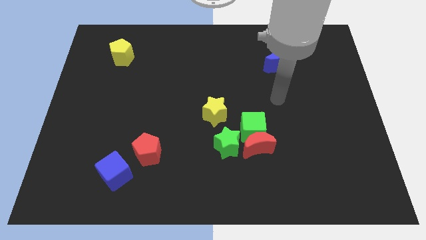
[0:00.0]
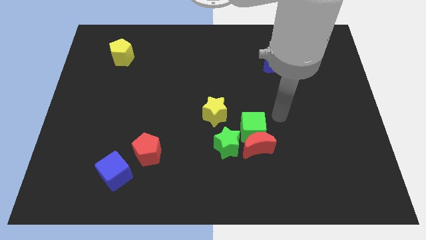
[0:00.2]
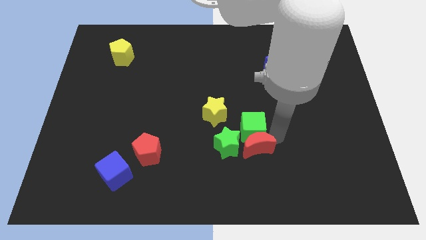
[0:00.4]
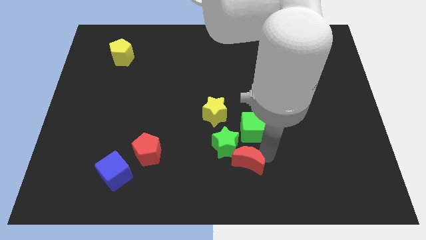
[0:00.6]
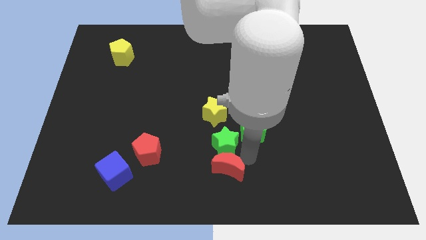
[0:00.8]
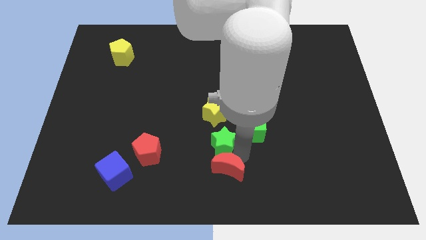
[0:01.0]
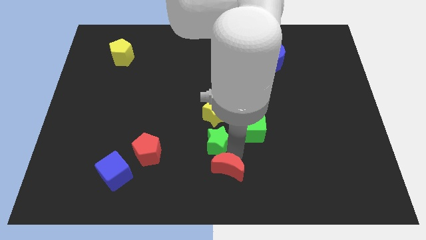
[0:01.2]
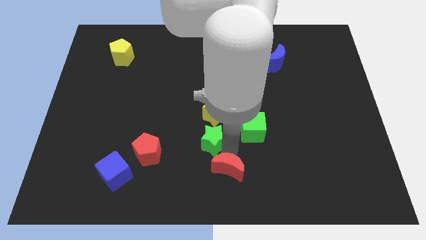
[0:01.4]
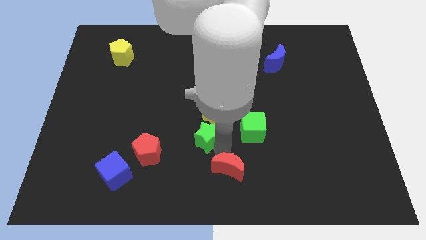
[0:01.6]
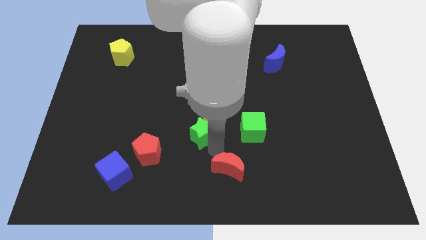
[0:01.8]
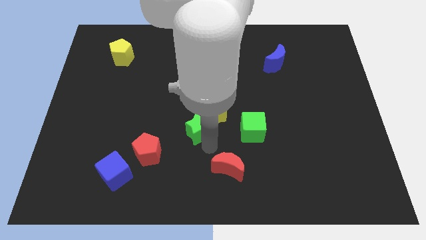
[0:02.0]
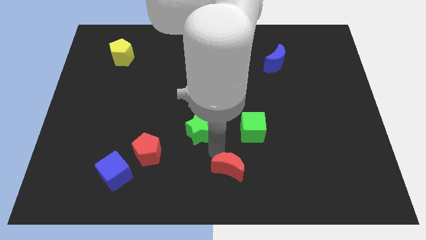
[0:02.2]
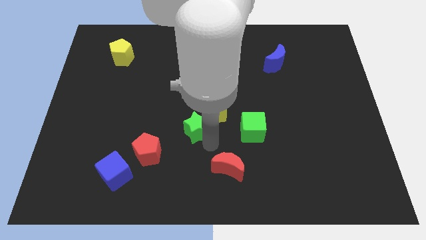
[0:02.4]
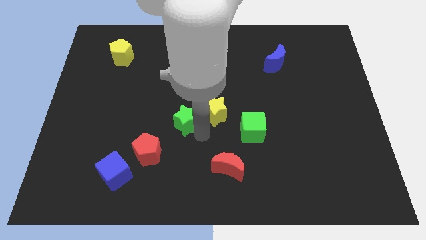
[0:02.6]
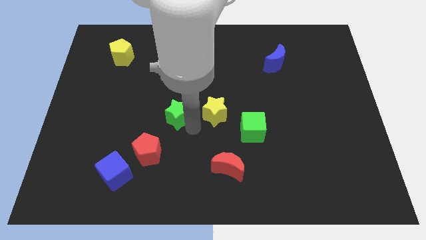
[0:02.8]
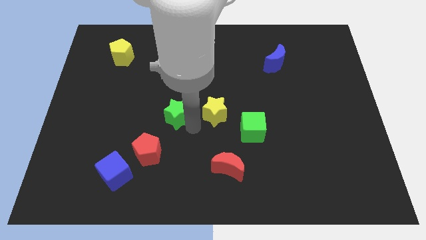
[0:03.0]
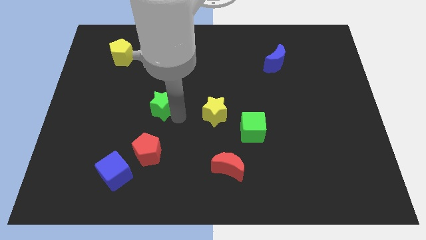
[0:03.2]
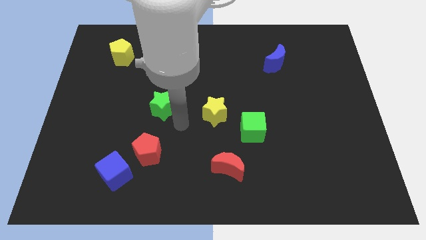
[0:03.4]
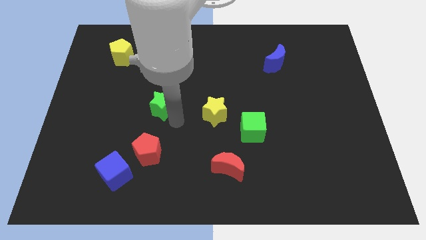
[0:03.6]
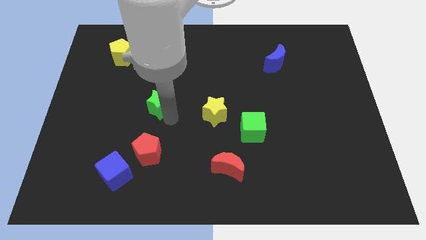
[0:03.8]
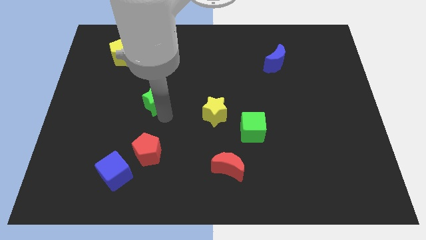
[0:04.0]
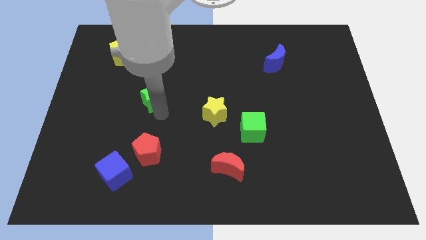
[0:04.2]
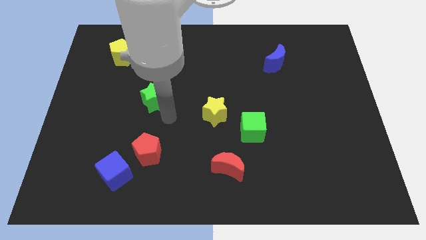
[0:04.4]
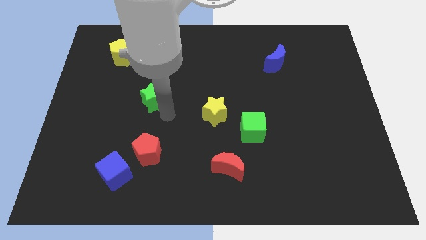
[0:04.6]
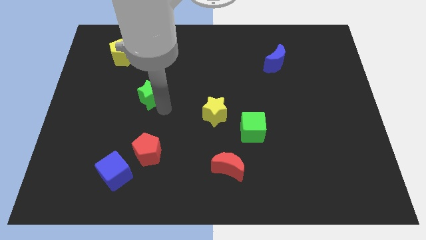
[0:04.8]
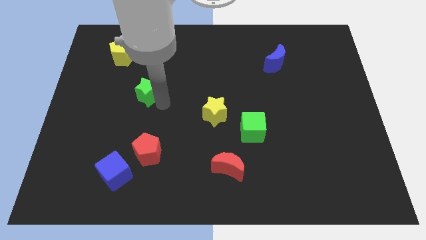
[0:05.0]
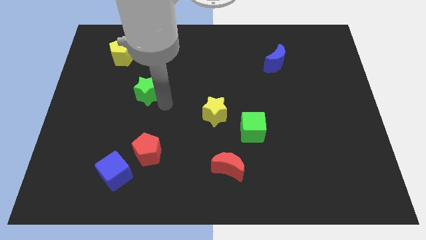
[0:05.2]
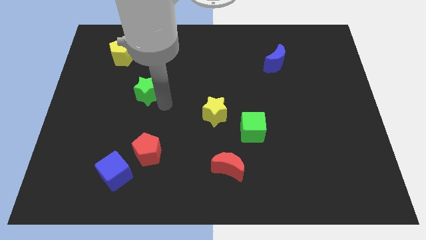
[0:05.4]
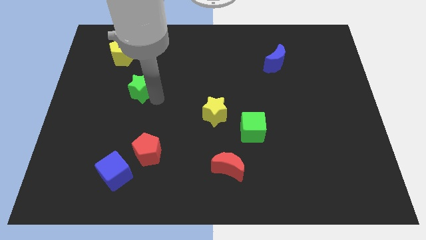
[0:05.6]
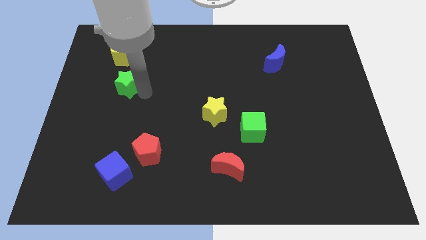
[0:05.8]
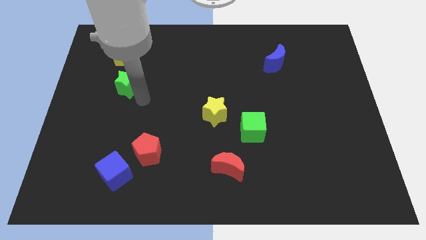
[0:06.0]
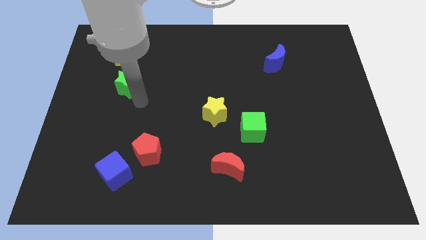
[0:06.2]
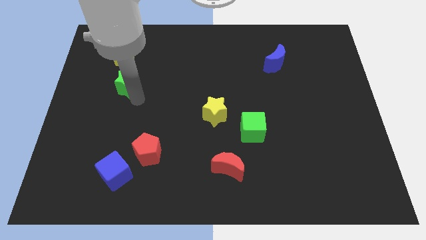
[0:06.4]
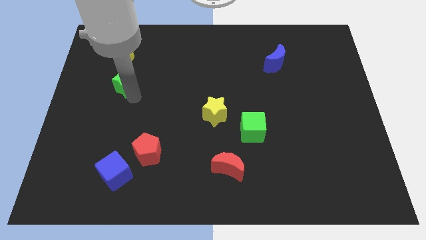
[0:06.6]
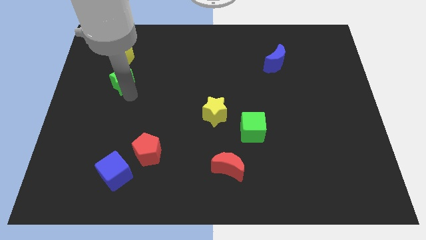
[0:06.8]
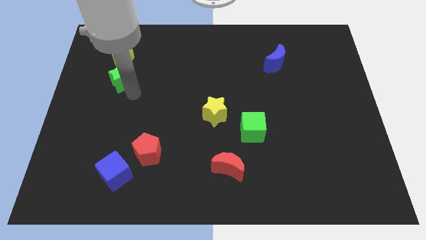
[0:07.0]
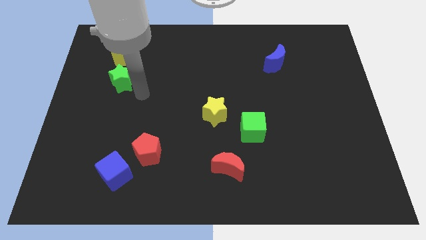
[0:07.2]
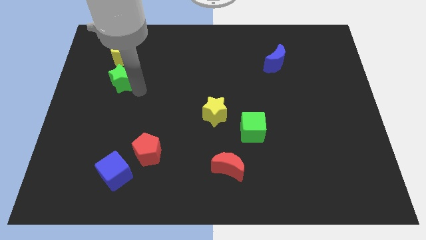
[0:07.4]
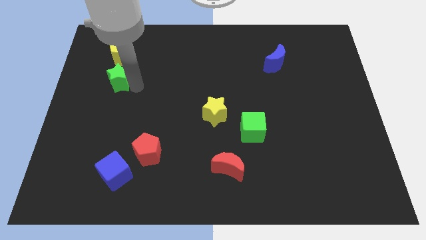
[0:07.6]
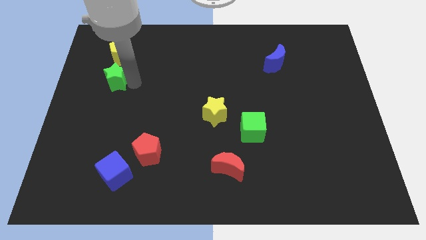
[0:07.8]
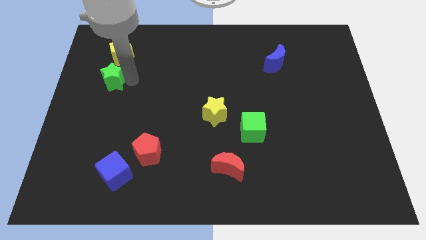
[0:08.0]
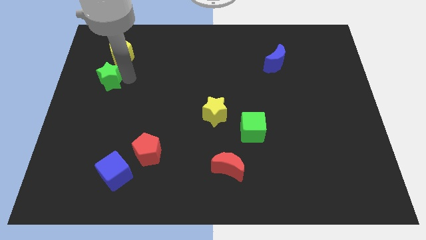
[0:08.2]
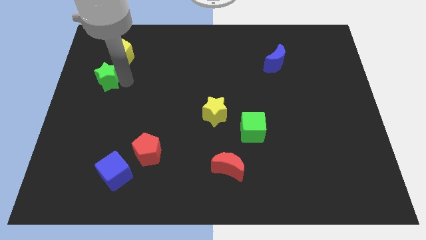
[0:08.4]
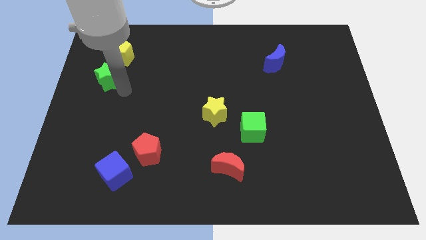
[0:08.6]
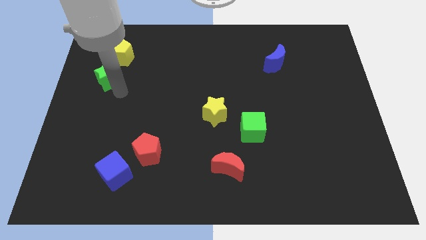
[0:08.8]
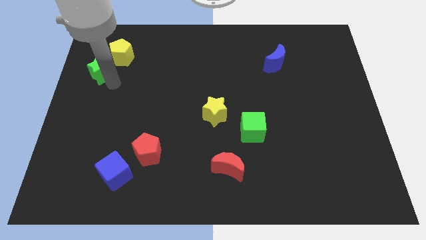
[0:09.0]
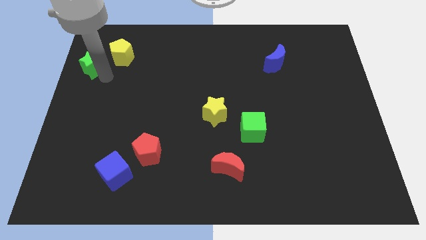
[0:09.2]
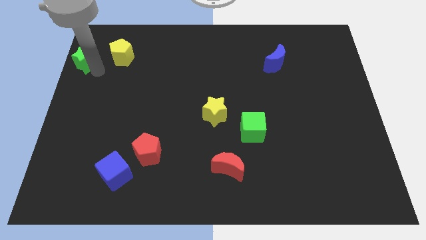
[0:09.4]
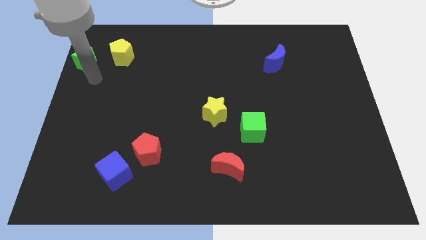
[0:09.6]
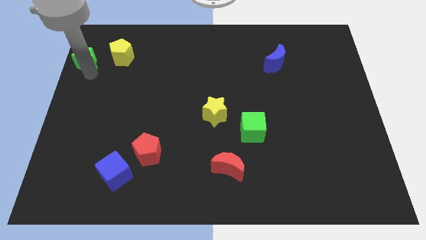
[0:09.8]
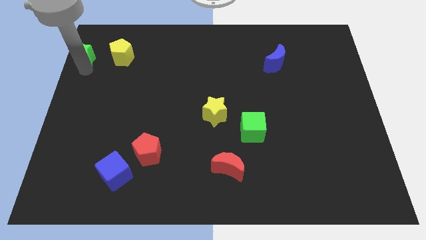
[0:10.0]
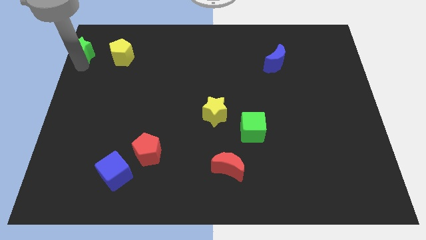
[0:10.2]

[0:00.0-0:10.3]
move the green star to the upper left corner

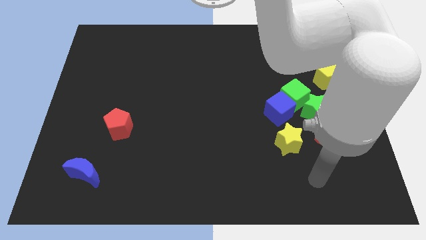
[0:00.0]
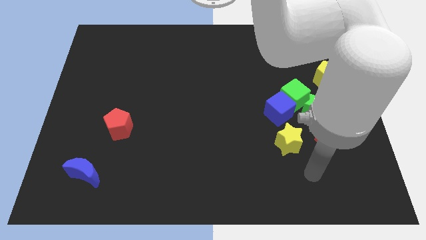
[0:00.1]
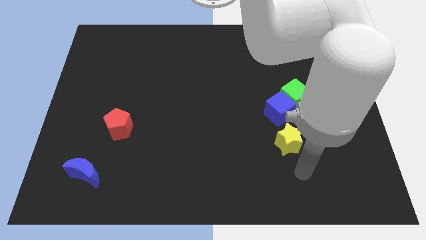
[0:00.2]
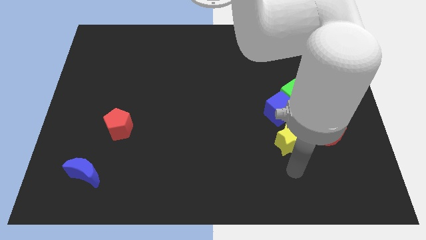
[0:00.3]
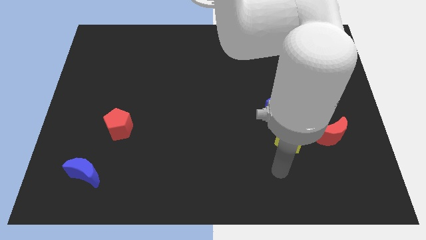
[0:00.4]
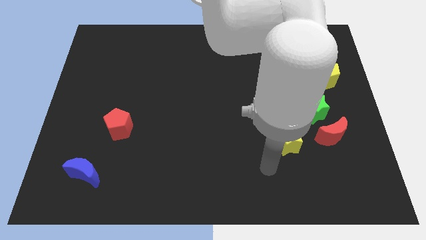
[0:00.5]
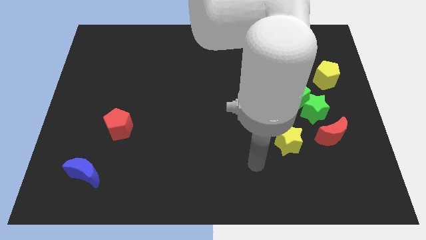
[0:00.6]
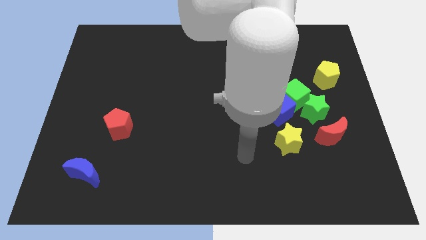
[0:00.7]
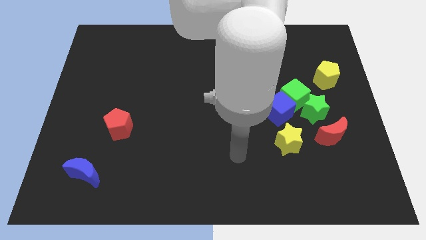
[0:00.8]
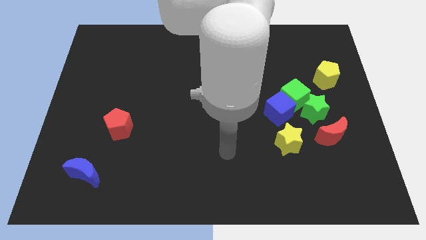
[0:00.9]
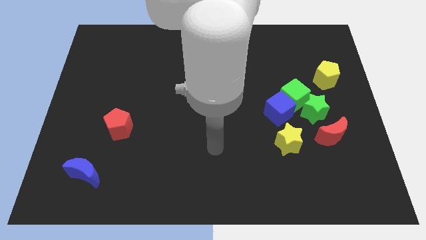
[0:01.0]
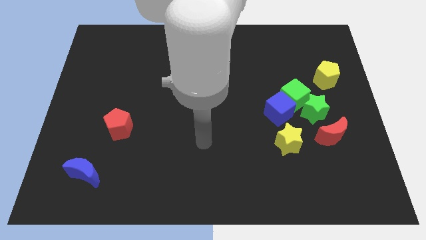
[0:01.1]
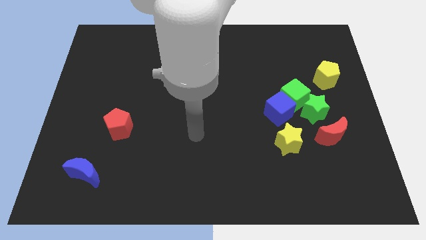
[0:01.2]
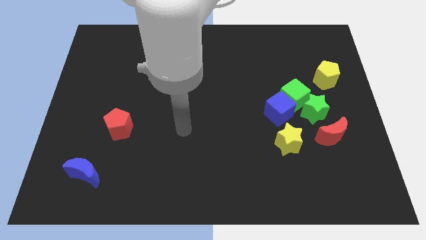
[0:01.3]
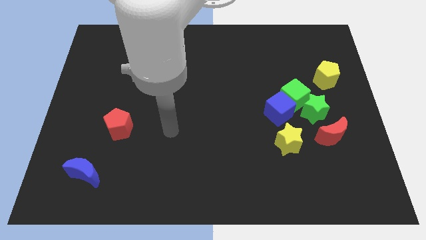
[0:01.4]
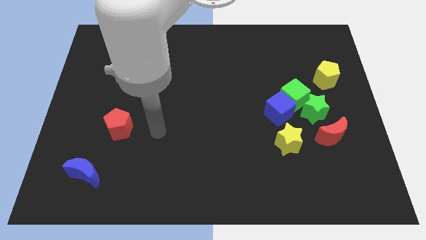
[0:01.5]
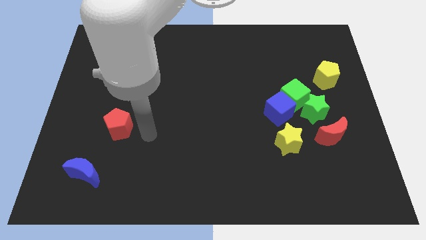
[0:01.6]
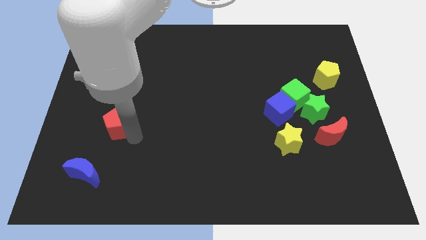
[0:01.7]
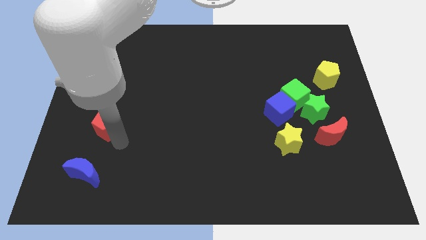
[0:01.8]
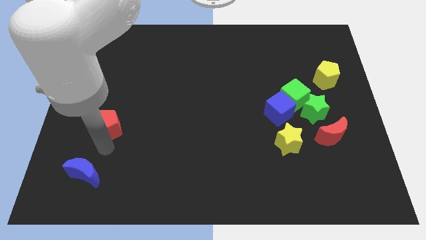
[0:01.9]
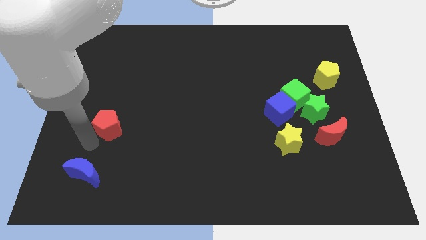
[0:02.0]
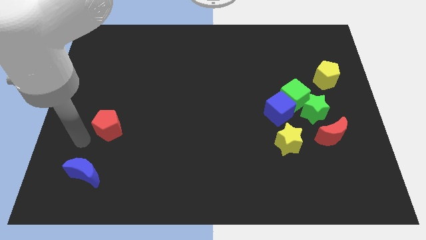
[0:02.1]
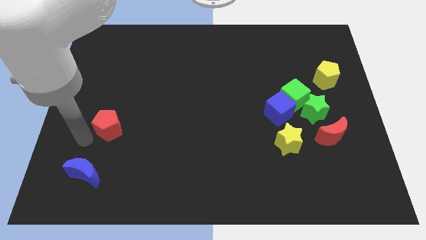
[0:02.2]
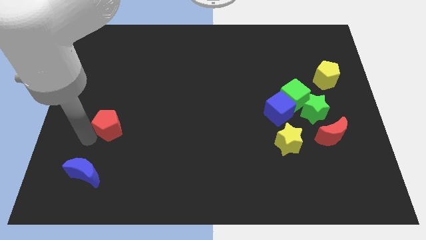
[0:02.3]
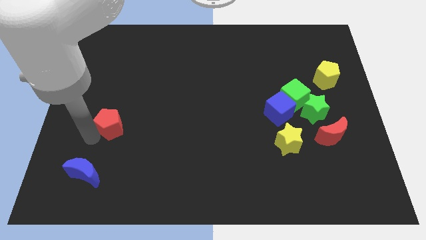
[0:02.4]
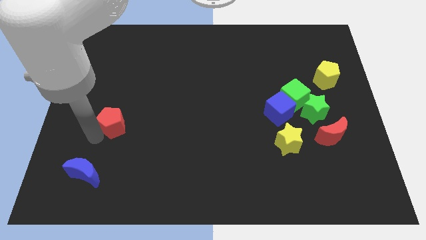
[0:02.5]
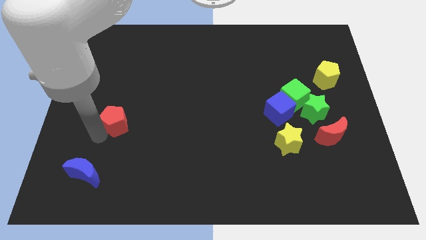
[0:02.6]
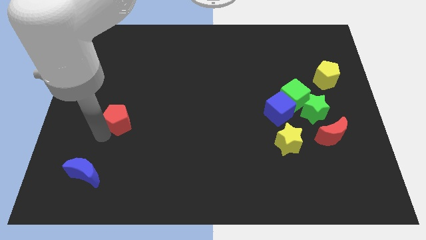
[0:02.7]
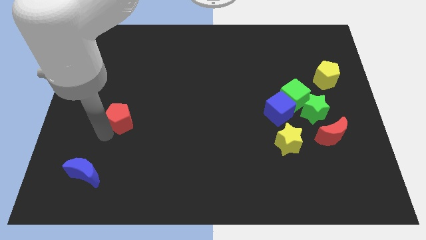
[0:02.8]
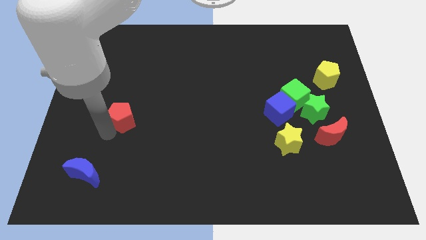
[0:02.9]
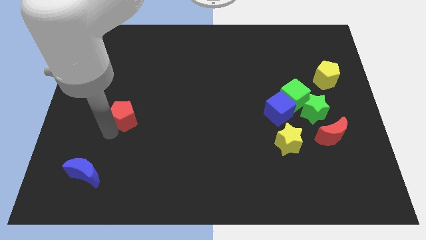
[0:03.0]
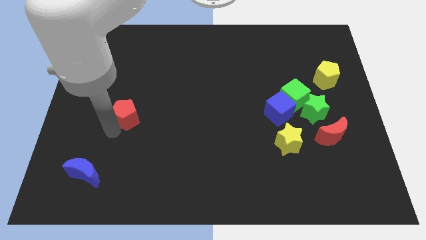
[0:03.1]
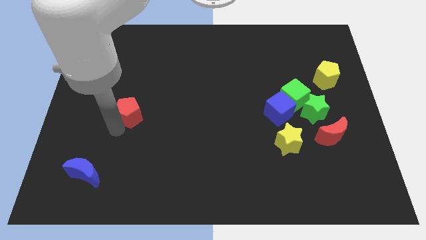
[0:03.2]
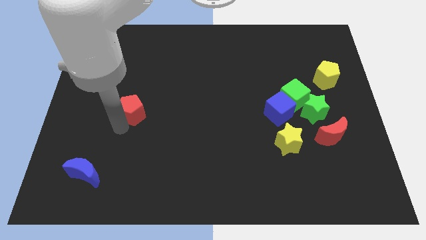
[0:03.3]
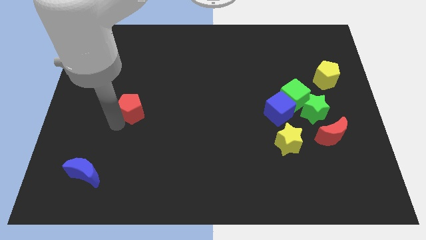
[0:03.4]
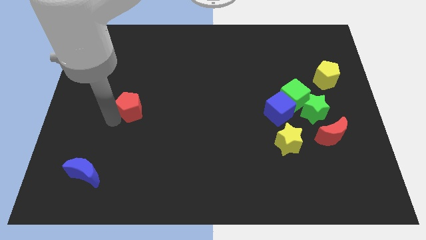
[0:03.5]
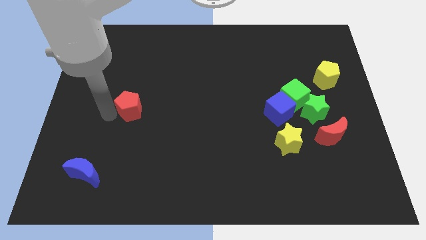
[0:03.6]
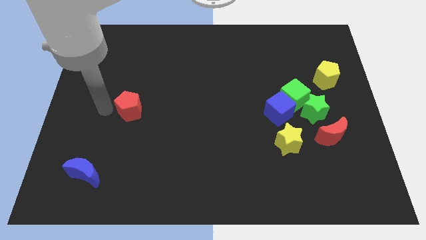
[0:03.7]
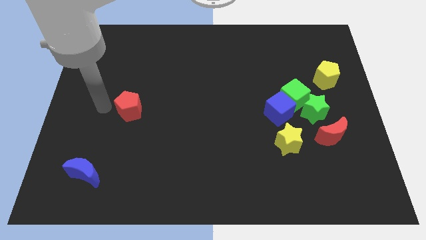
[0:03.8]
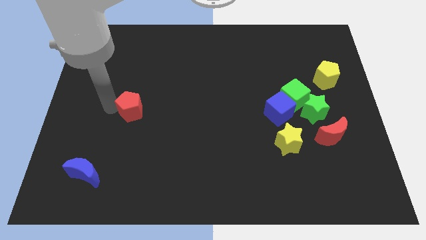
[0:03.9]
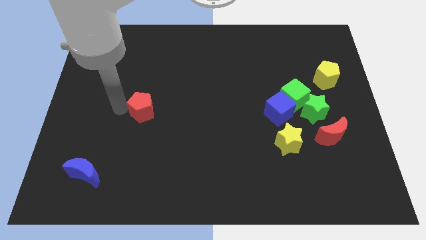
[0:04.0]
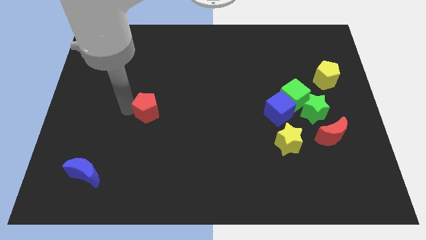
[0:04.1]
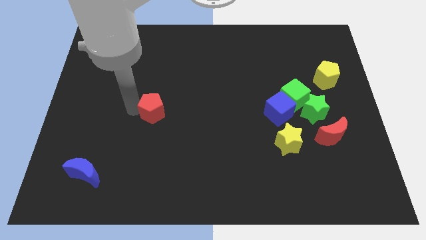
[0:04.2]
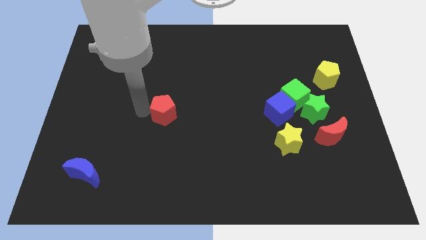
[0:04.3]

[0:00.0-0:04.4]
put the red pentagon to the center
